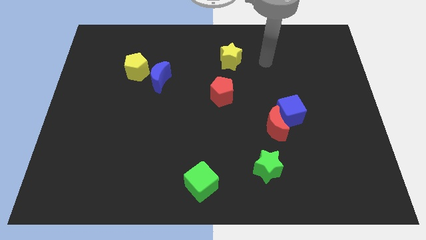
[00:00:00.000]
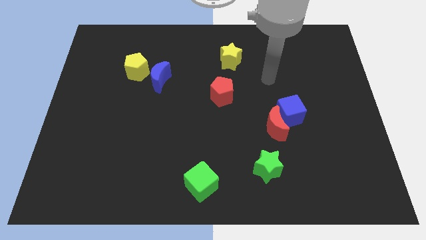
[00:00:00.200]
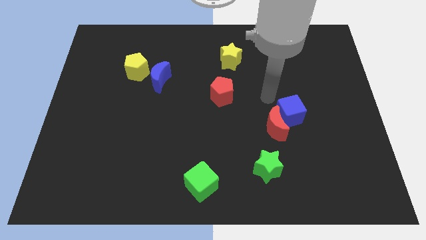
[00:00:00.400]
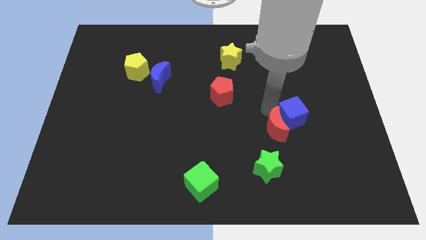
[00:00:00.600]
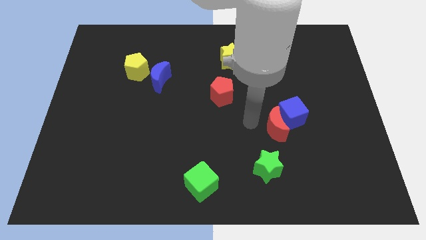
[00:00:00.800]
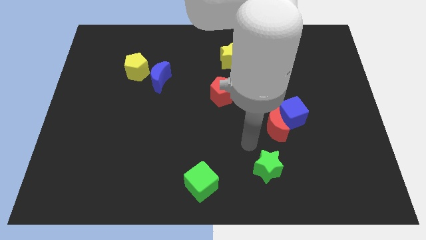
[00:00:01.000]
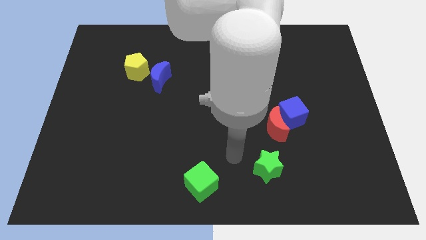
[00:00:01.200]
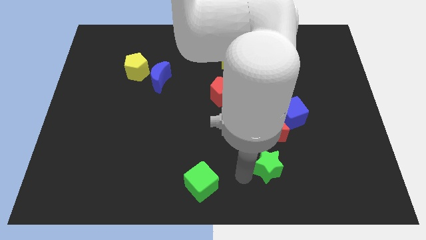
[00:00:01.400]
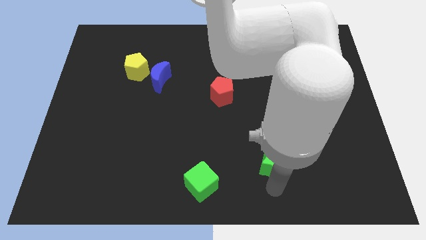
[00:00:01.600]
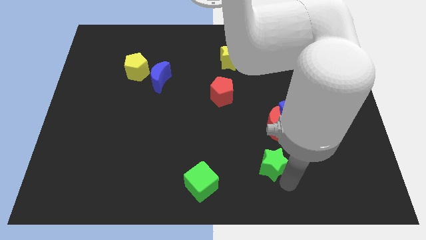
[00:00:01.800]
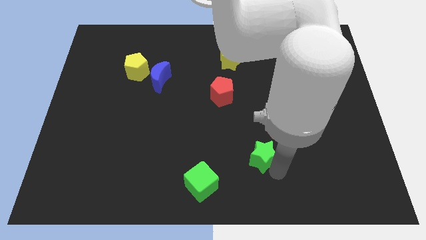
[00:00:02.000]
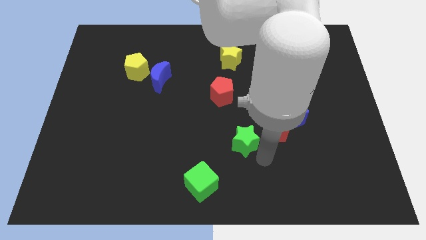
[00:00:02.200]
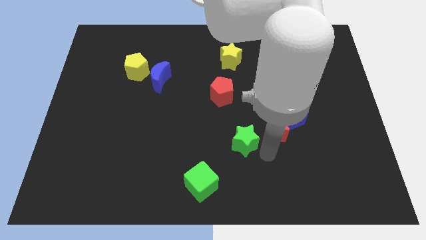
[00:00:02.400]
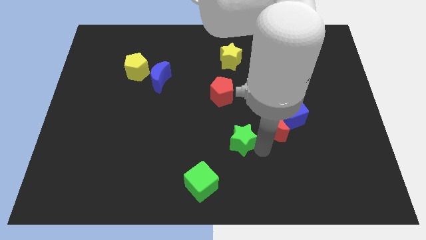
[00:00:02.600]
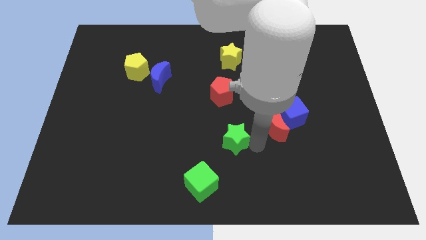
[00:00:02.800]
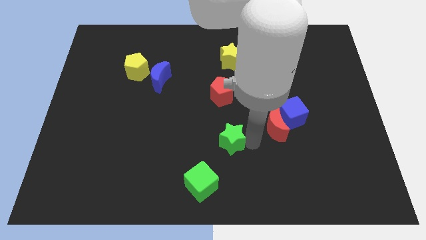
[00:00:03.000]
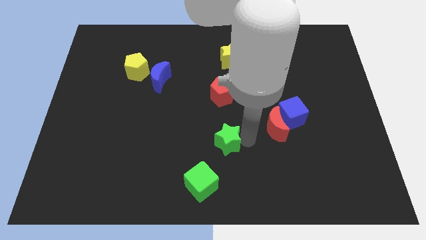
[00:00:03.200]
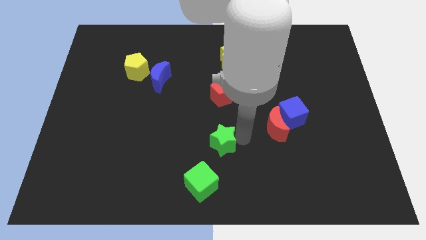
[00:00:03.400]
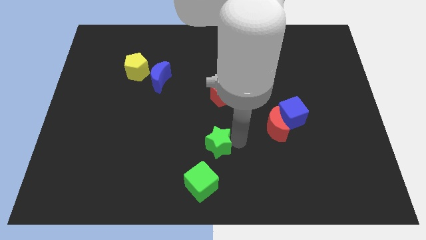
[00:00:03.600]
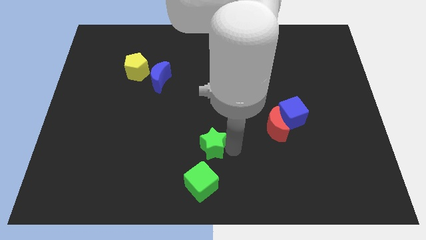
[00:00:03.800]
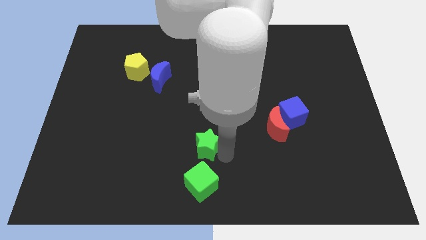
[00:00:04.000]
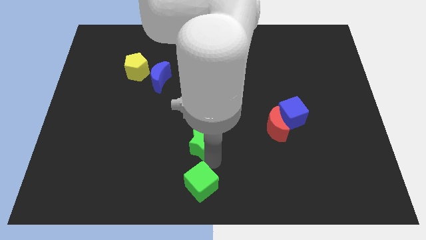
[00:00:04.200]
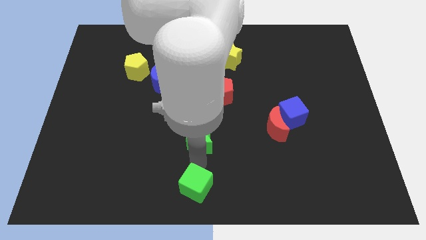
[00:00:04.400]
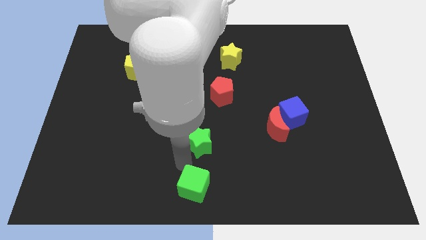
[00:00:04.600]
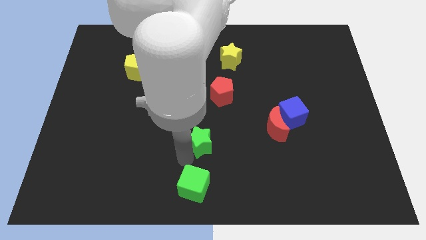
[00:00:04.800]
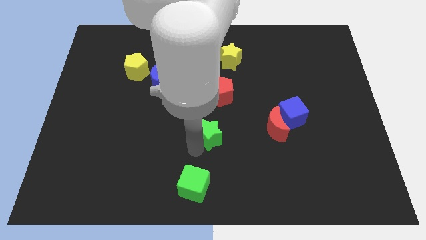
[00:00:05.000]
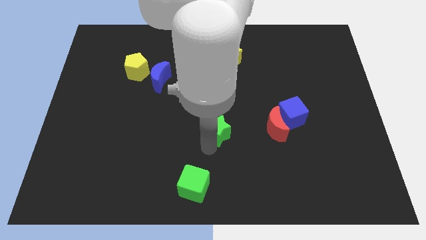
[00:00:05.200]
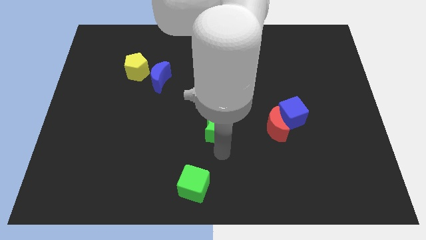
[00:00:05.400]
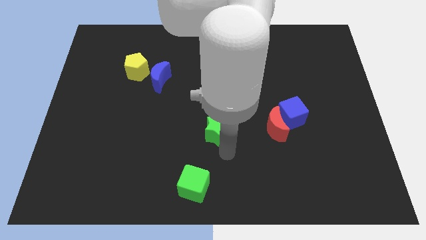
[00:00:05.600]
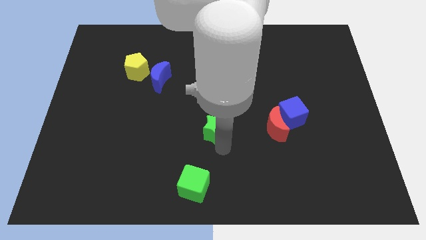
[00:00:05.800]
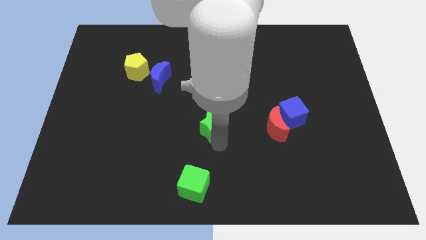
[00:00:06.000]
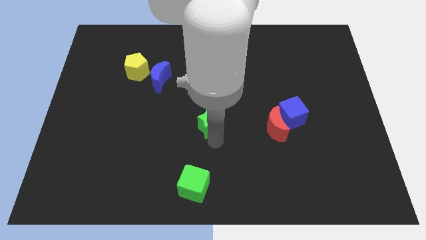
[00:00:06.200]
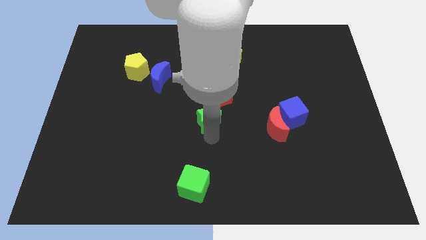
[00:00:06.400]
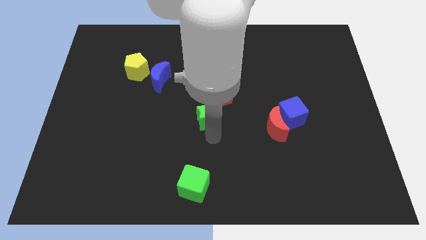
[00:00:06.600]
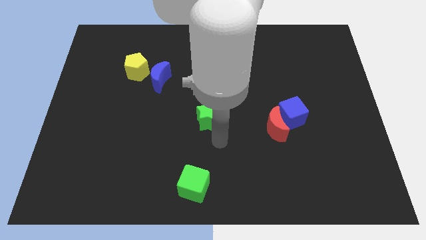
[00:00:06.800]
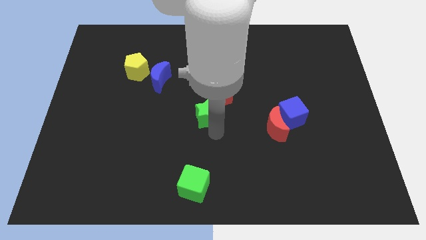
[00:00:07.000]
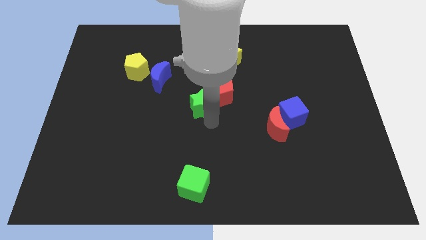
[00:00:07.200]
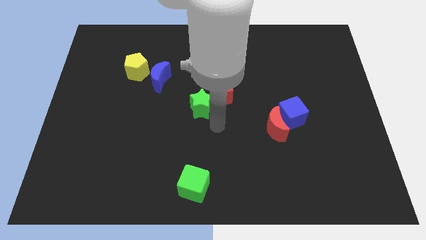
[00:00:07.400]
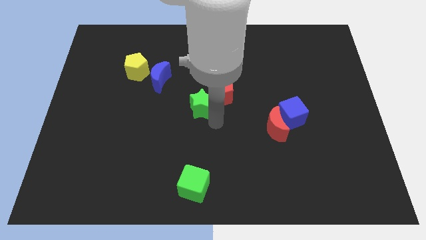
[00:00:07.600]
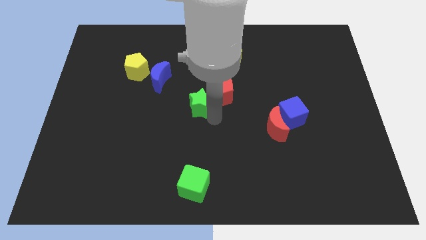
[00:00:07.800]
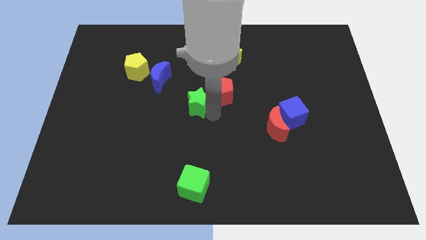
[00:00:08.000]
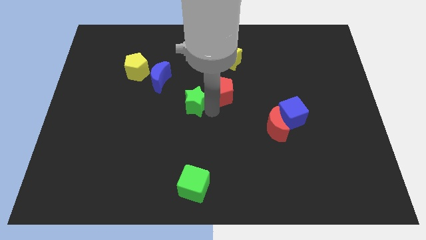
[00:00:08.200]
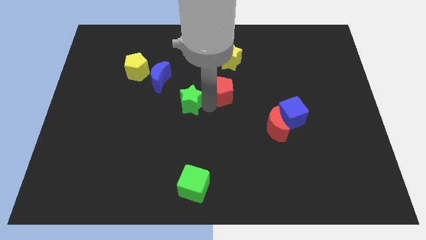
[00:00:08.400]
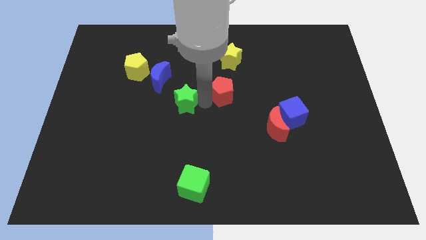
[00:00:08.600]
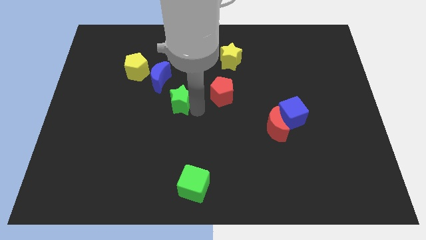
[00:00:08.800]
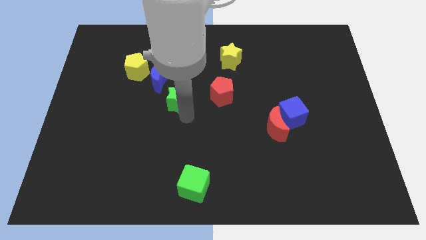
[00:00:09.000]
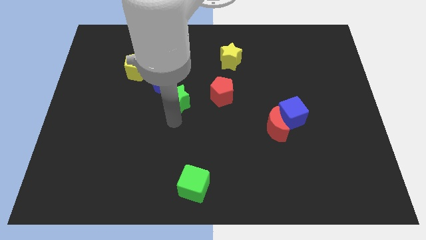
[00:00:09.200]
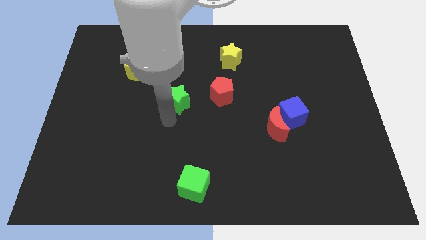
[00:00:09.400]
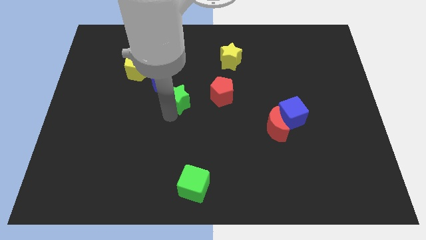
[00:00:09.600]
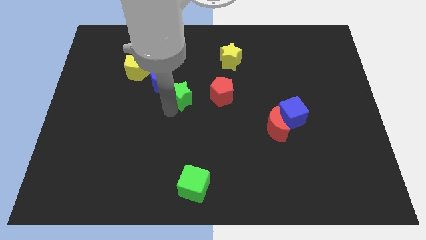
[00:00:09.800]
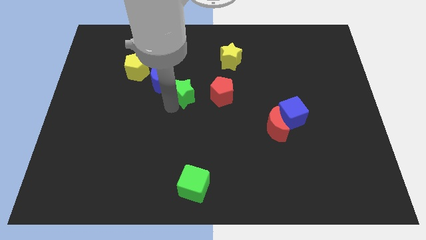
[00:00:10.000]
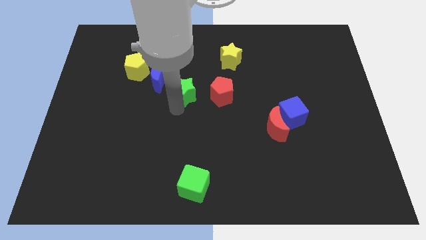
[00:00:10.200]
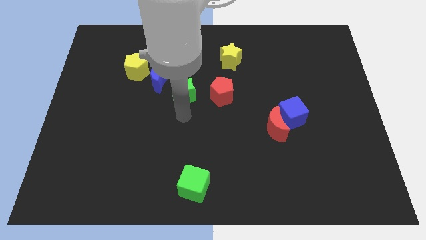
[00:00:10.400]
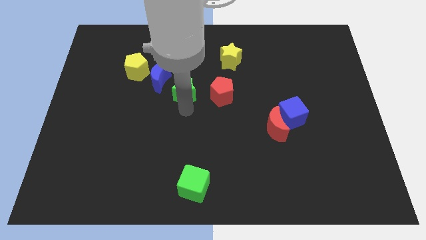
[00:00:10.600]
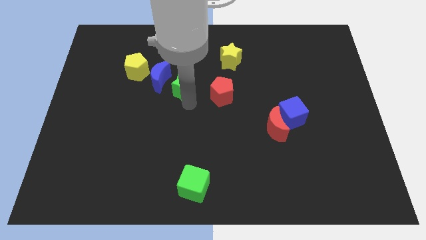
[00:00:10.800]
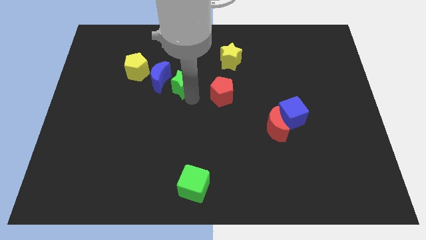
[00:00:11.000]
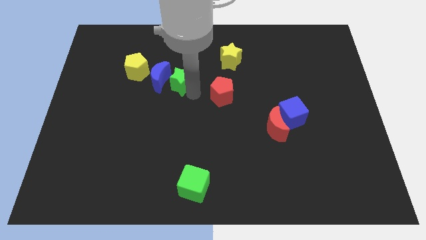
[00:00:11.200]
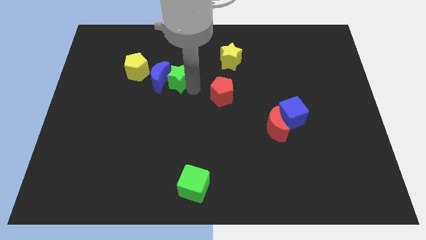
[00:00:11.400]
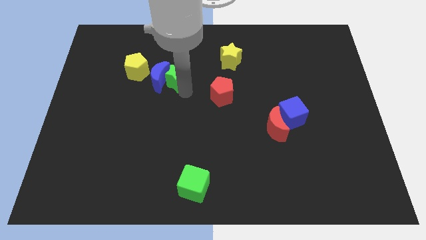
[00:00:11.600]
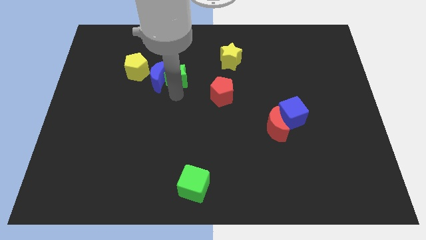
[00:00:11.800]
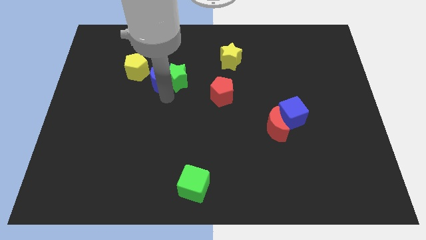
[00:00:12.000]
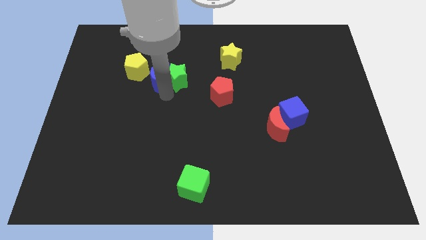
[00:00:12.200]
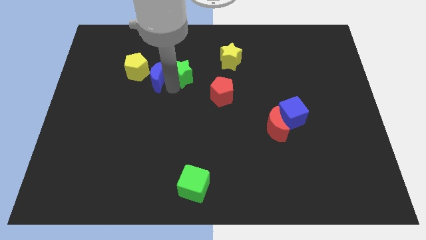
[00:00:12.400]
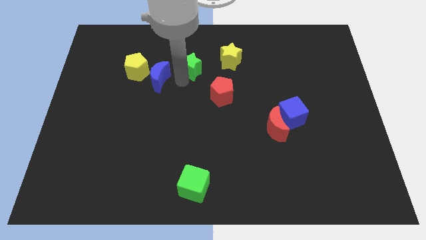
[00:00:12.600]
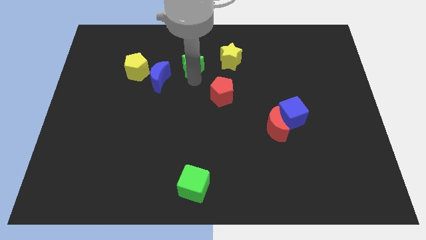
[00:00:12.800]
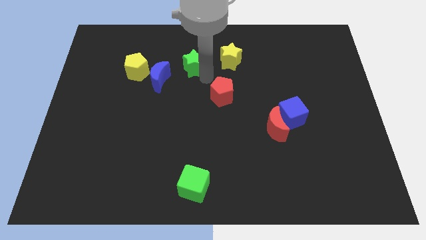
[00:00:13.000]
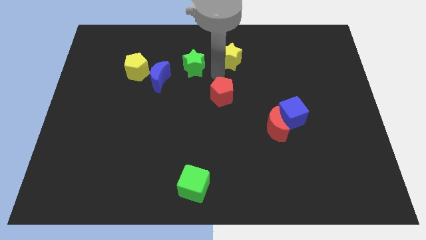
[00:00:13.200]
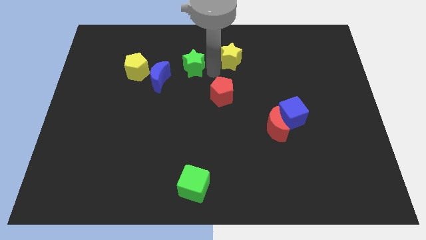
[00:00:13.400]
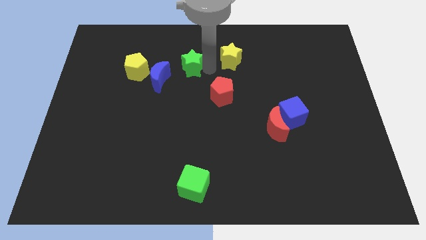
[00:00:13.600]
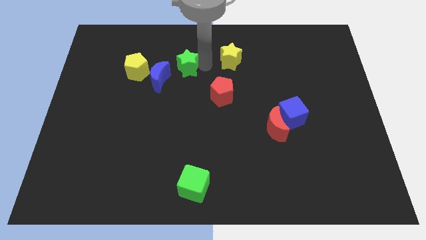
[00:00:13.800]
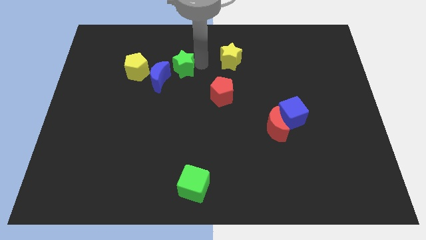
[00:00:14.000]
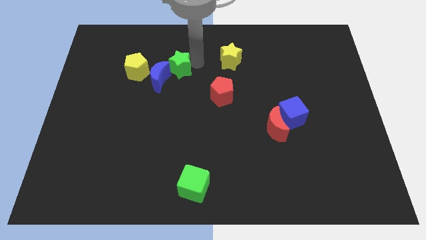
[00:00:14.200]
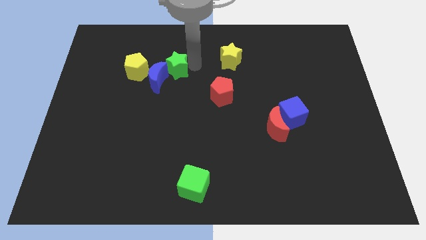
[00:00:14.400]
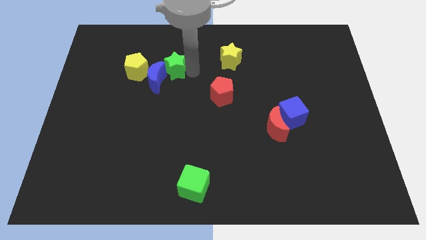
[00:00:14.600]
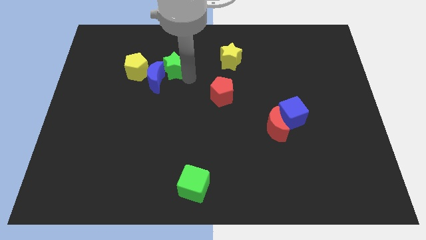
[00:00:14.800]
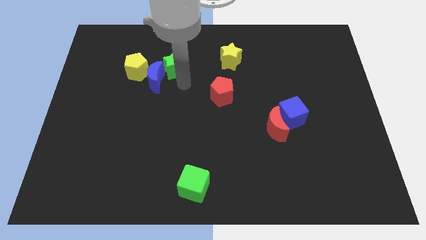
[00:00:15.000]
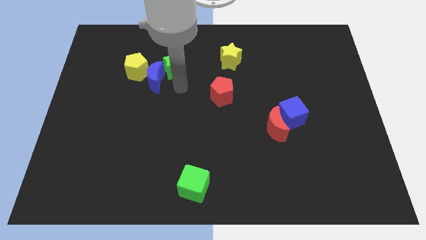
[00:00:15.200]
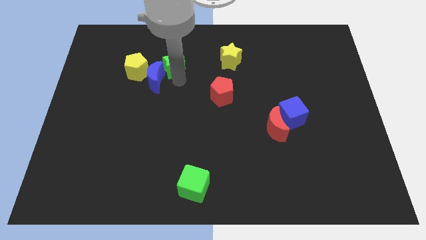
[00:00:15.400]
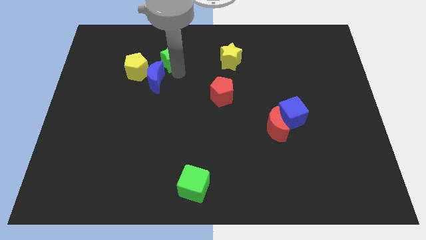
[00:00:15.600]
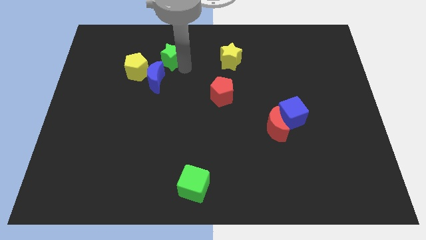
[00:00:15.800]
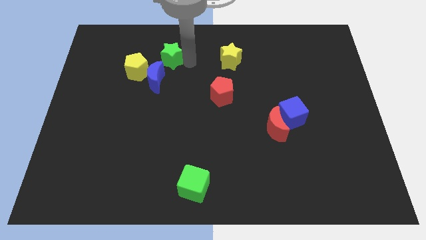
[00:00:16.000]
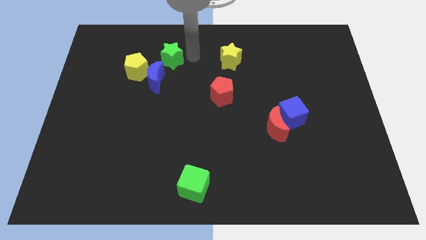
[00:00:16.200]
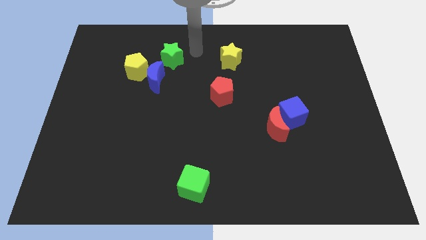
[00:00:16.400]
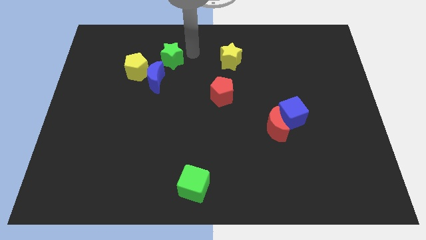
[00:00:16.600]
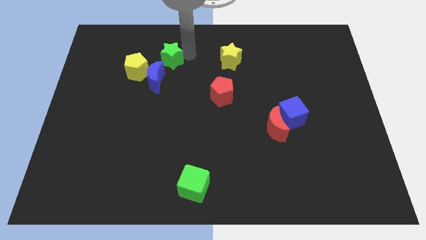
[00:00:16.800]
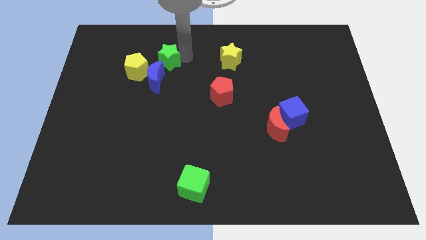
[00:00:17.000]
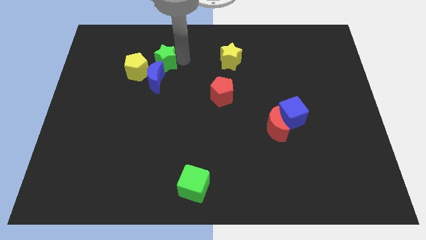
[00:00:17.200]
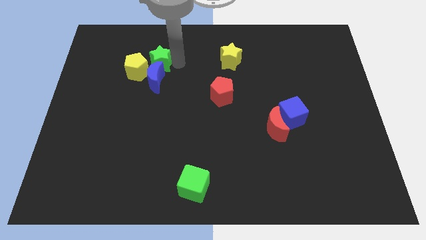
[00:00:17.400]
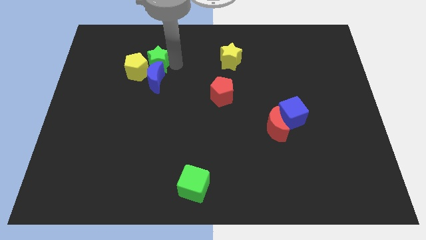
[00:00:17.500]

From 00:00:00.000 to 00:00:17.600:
move the green star to the top left side of the blue moon
